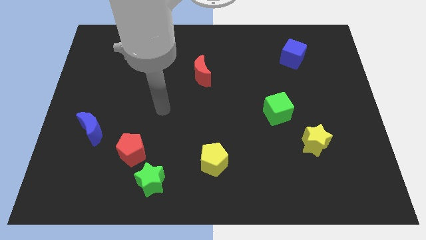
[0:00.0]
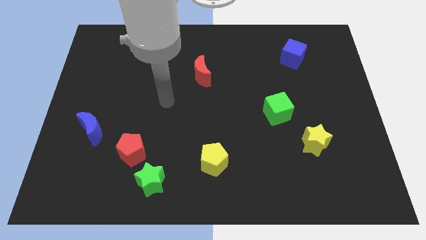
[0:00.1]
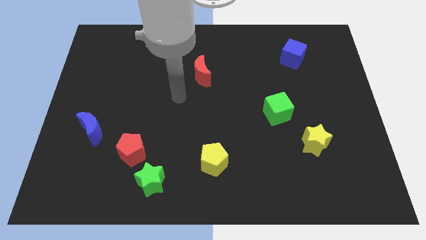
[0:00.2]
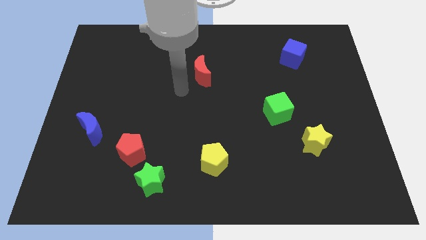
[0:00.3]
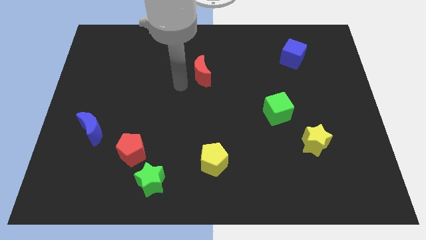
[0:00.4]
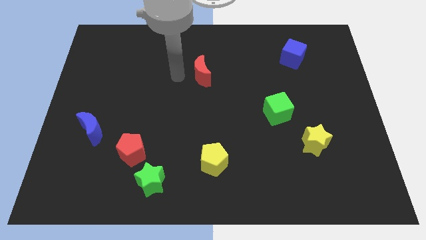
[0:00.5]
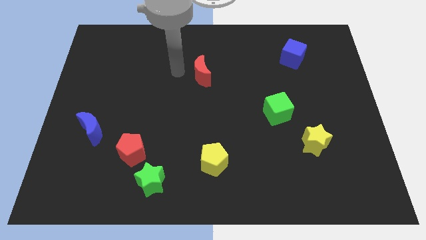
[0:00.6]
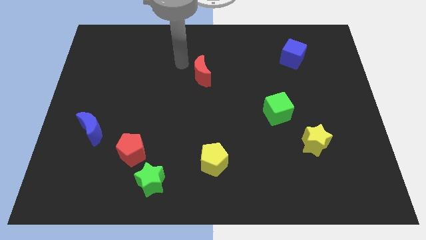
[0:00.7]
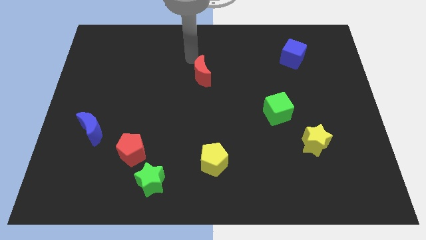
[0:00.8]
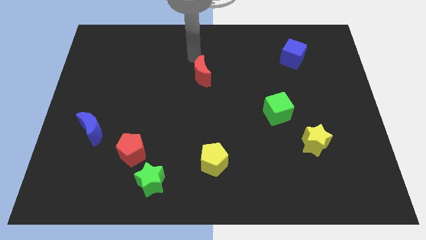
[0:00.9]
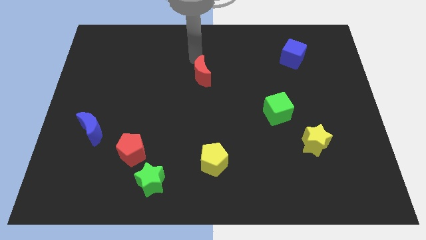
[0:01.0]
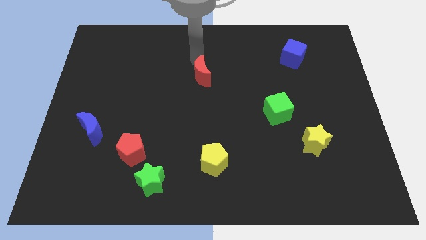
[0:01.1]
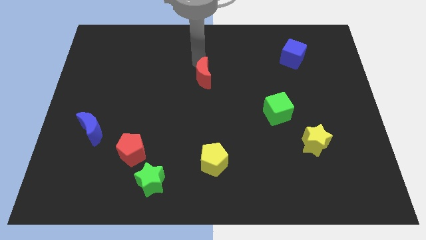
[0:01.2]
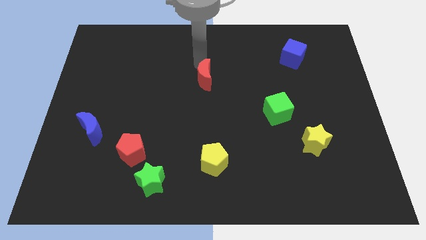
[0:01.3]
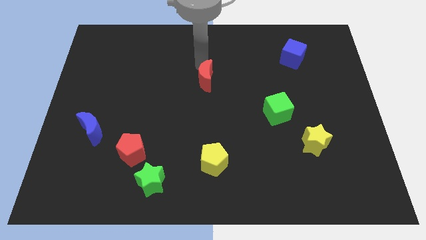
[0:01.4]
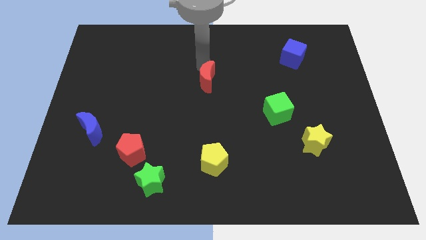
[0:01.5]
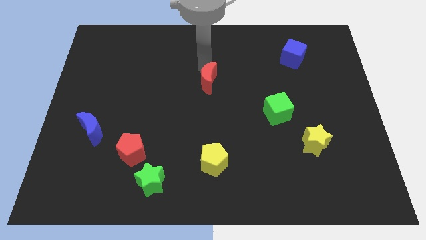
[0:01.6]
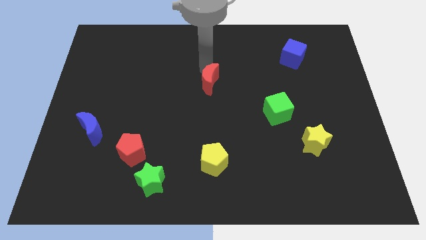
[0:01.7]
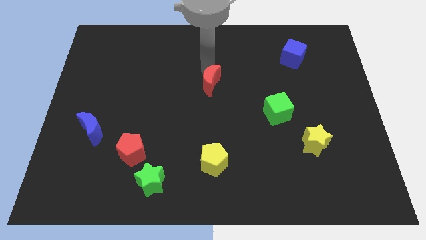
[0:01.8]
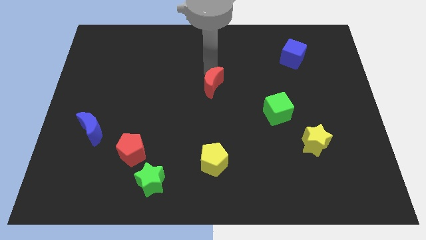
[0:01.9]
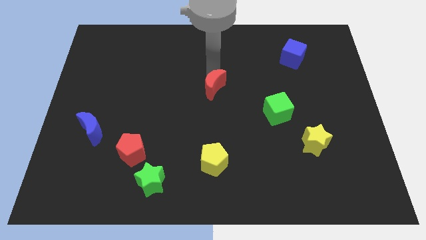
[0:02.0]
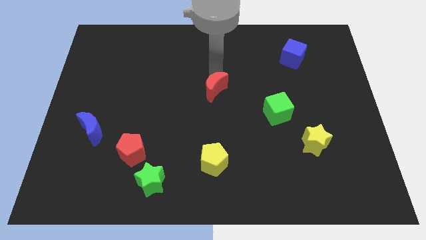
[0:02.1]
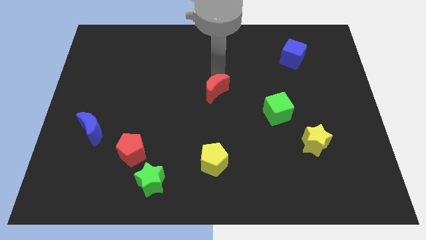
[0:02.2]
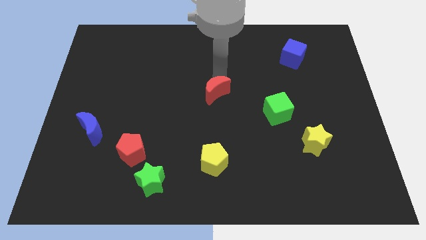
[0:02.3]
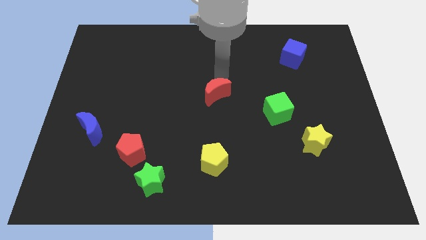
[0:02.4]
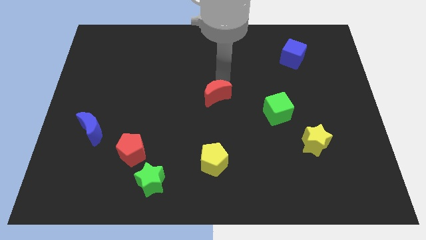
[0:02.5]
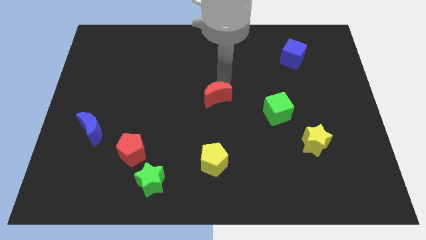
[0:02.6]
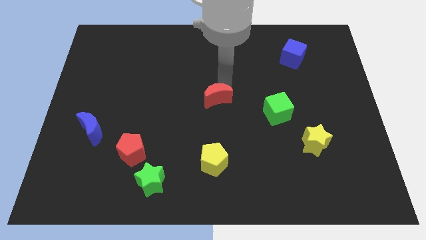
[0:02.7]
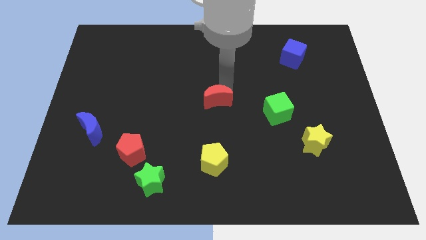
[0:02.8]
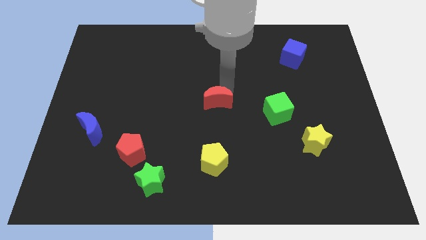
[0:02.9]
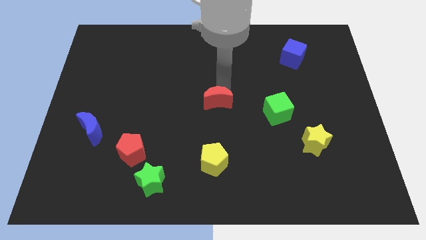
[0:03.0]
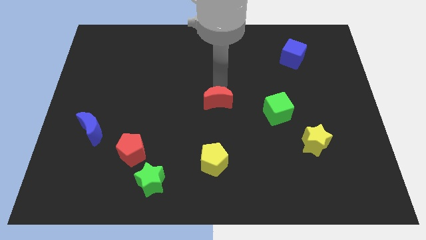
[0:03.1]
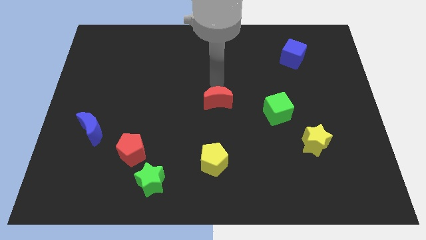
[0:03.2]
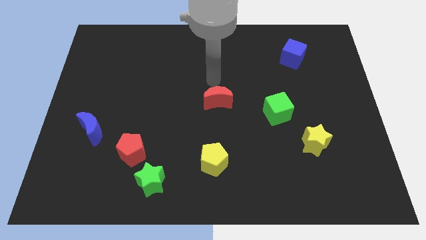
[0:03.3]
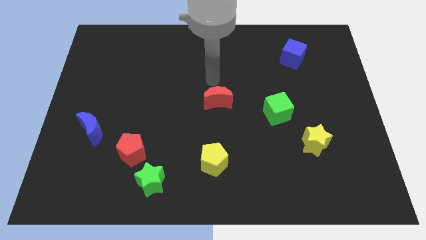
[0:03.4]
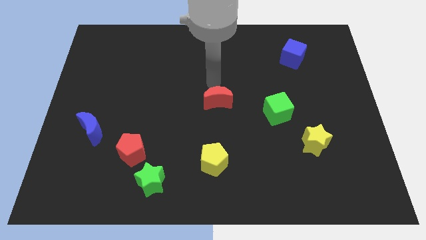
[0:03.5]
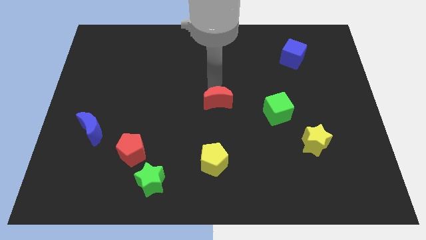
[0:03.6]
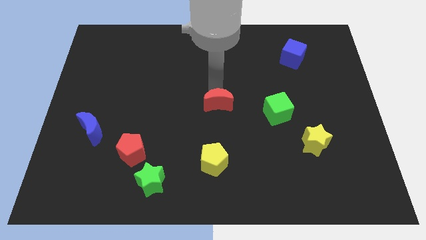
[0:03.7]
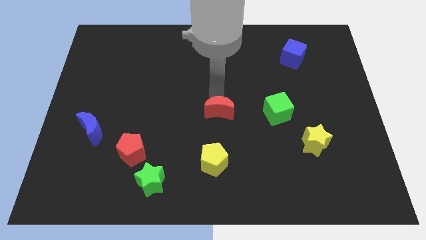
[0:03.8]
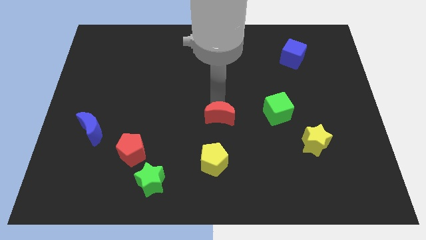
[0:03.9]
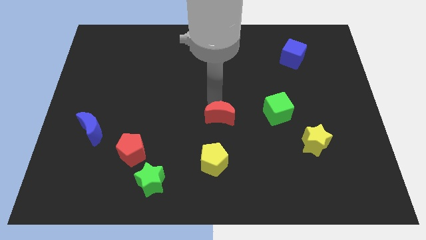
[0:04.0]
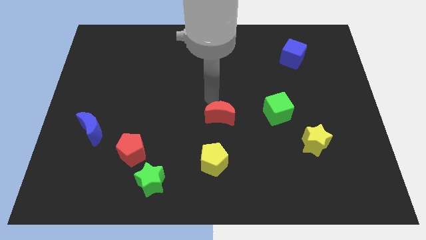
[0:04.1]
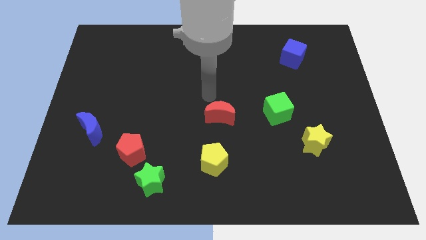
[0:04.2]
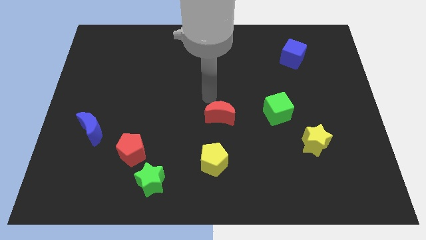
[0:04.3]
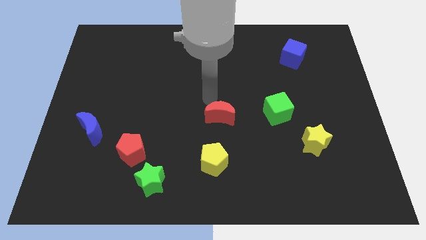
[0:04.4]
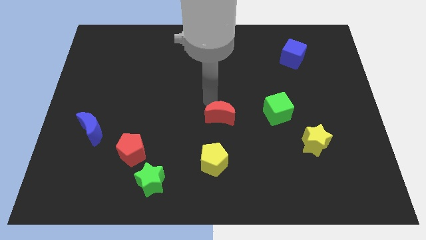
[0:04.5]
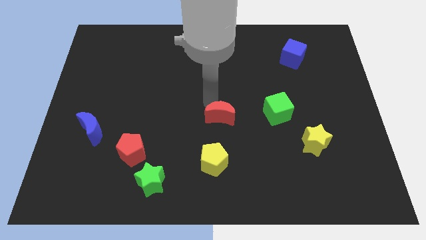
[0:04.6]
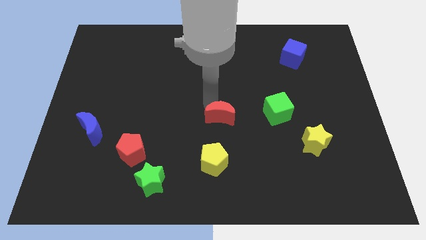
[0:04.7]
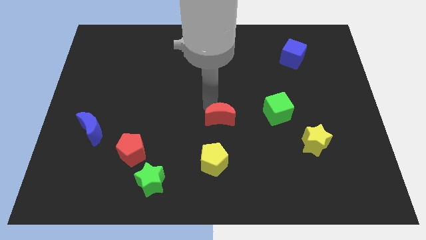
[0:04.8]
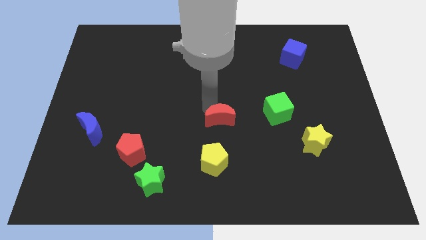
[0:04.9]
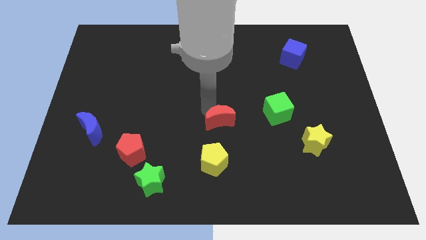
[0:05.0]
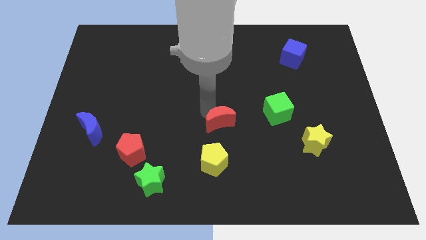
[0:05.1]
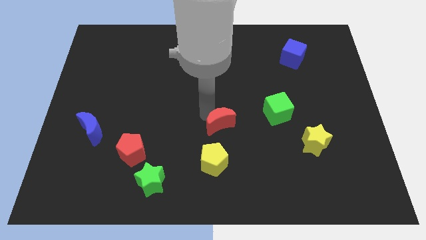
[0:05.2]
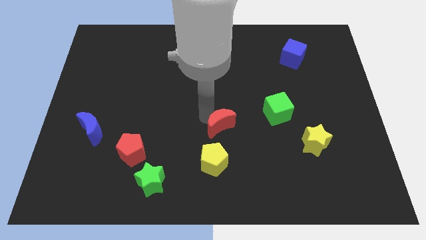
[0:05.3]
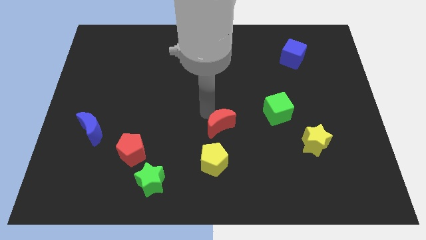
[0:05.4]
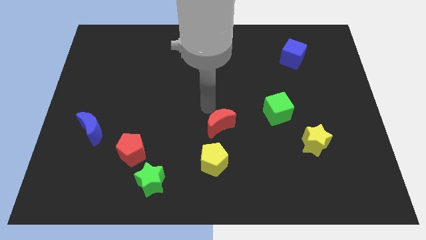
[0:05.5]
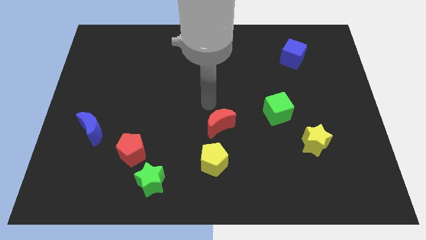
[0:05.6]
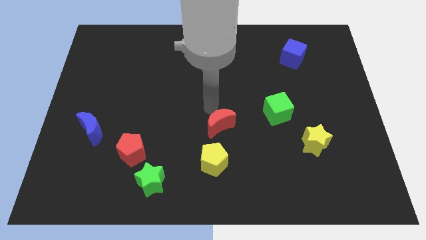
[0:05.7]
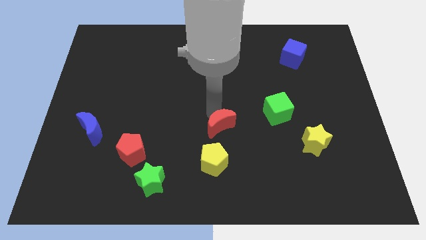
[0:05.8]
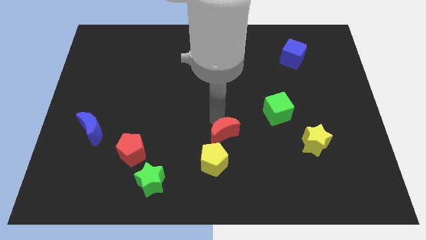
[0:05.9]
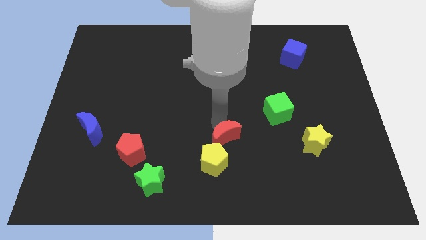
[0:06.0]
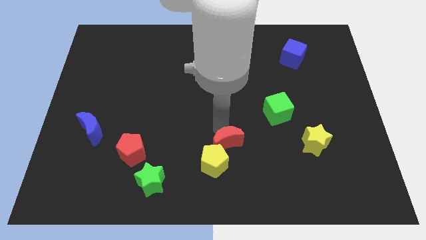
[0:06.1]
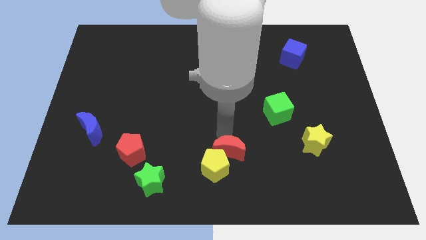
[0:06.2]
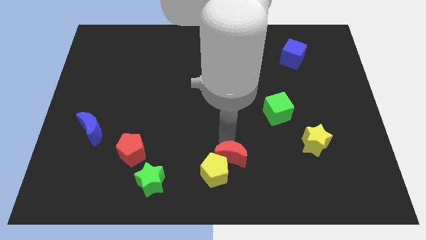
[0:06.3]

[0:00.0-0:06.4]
put the red moon to the bottom

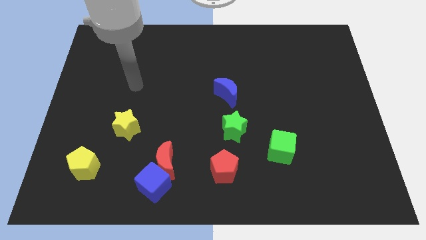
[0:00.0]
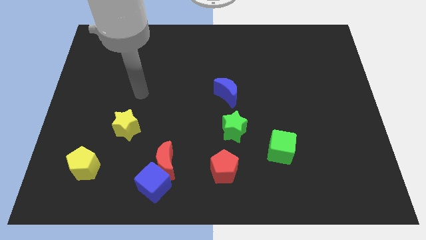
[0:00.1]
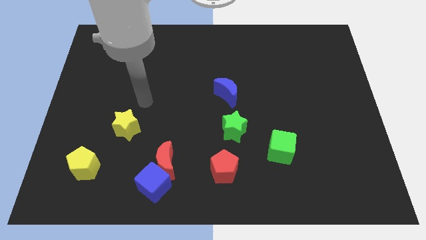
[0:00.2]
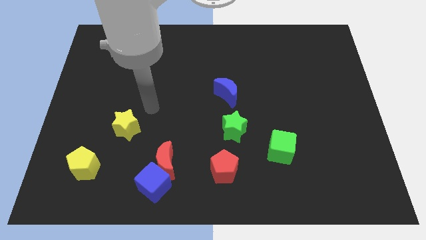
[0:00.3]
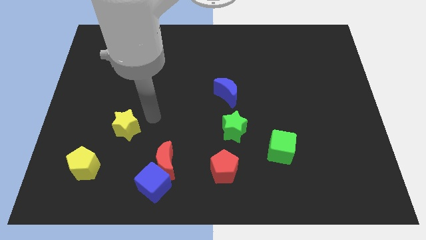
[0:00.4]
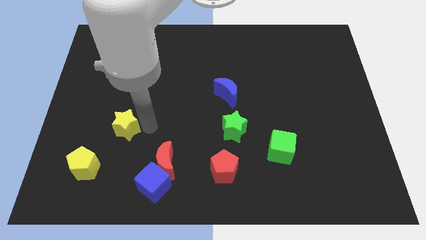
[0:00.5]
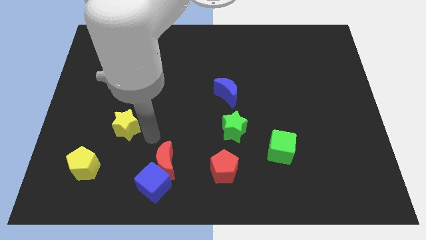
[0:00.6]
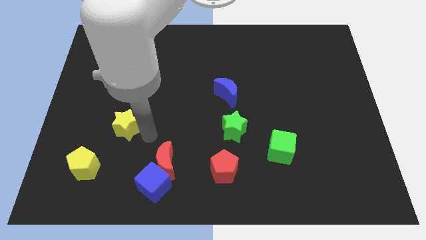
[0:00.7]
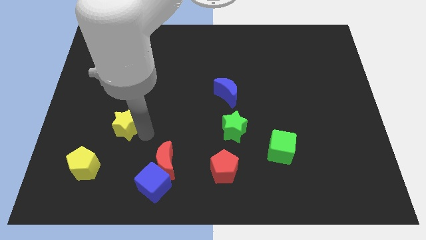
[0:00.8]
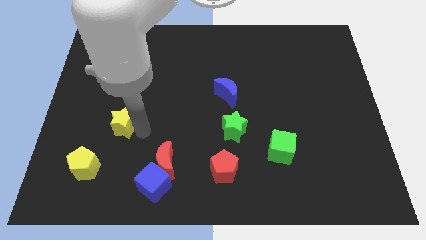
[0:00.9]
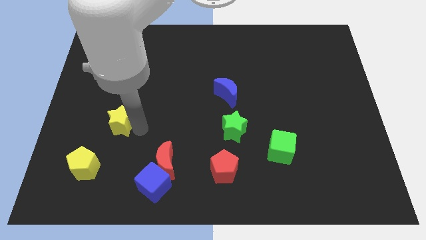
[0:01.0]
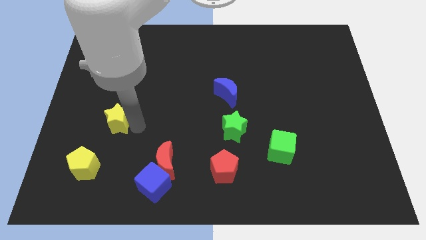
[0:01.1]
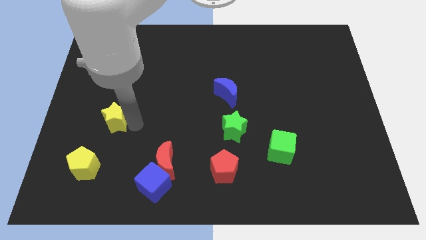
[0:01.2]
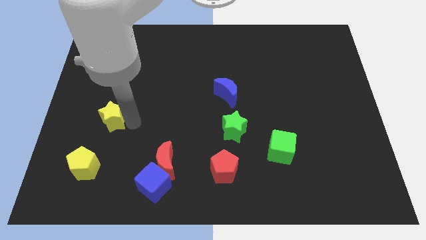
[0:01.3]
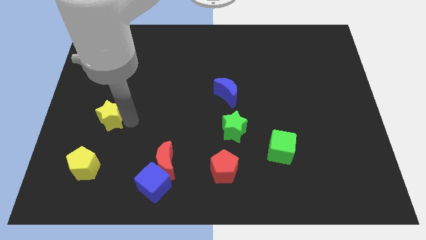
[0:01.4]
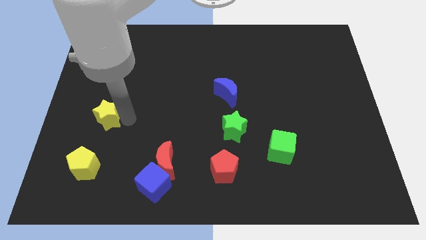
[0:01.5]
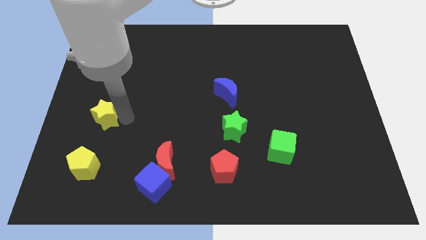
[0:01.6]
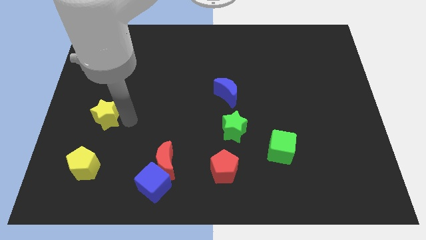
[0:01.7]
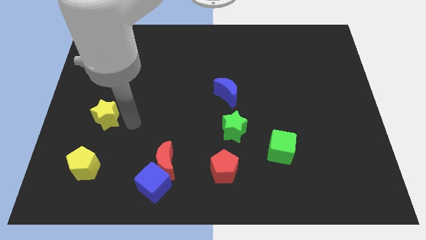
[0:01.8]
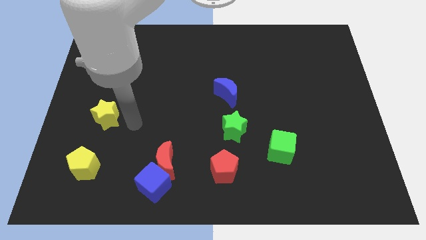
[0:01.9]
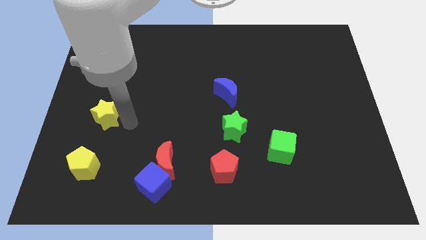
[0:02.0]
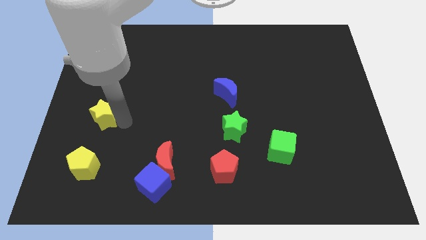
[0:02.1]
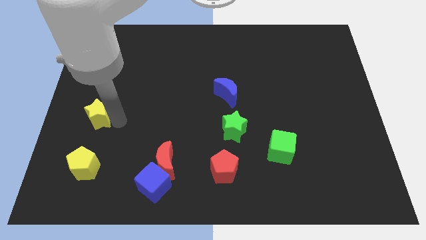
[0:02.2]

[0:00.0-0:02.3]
push the yellow star to the left side
